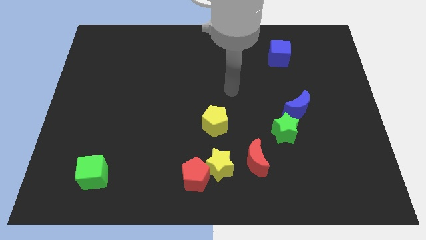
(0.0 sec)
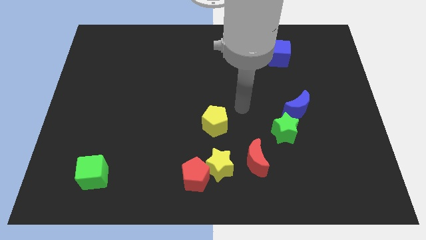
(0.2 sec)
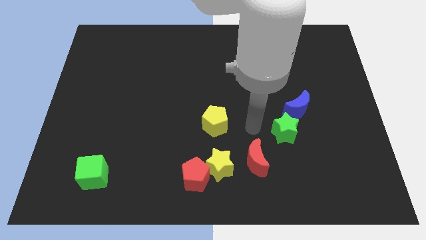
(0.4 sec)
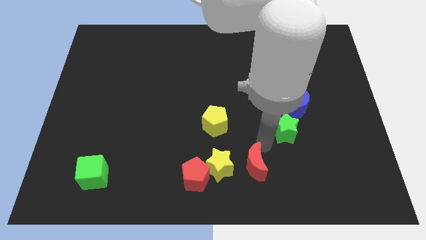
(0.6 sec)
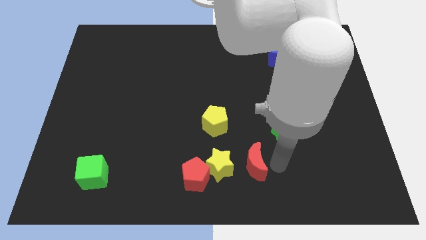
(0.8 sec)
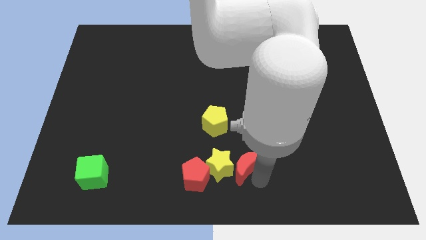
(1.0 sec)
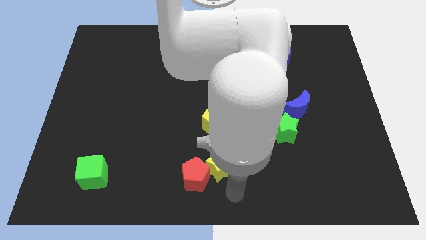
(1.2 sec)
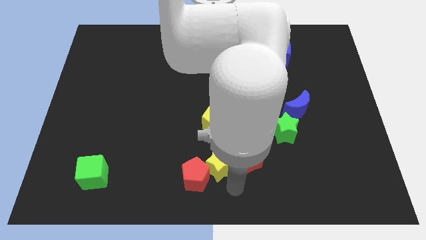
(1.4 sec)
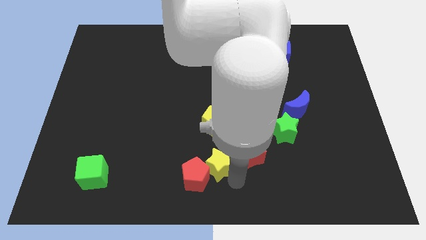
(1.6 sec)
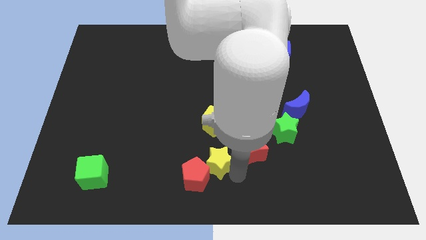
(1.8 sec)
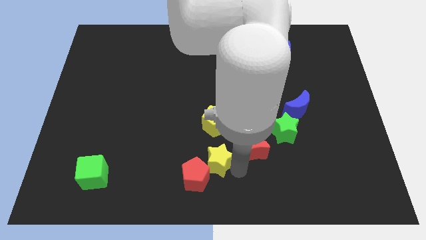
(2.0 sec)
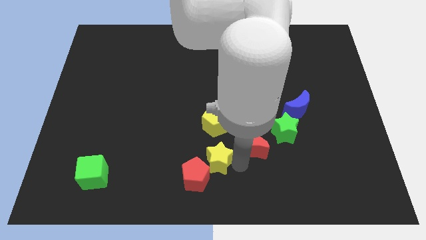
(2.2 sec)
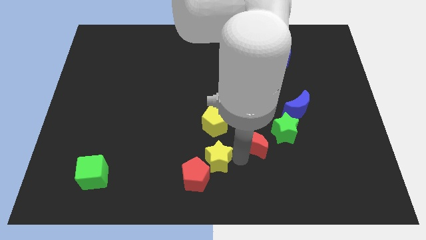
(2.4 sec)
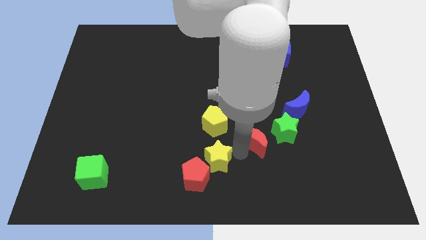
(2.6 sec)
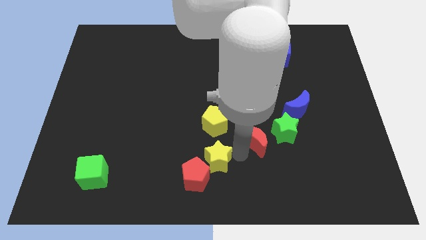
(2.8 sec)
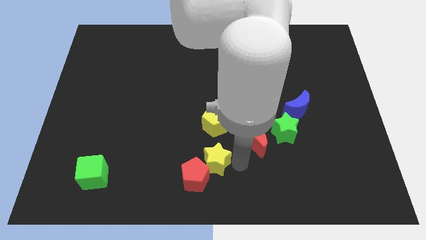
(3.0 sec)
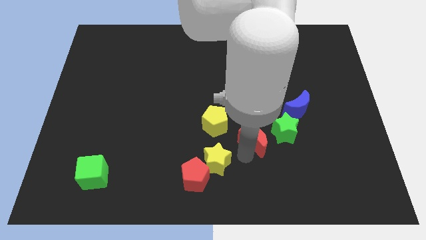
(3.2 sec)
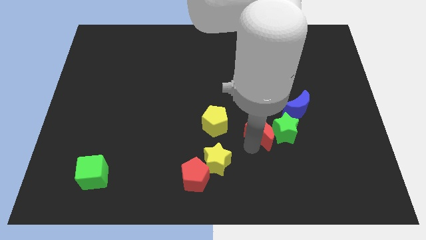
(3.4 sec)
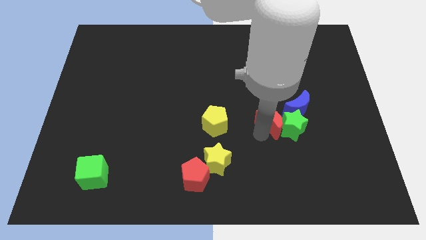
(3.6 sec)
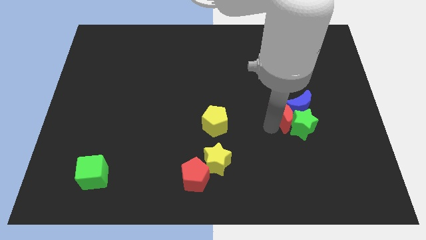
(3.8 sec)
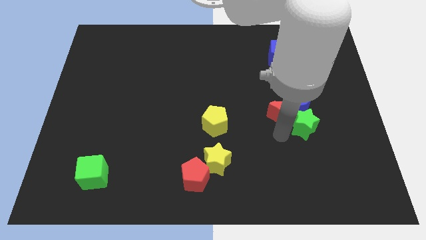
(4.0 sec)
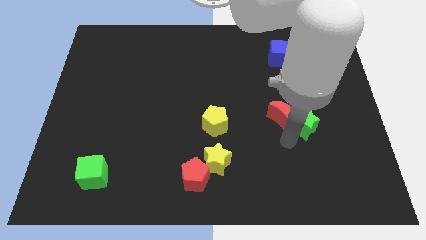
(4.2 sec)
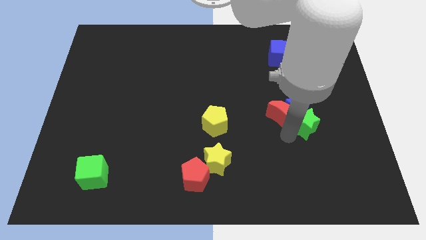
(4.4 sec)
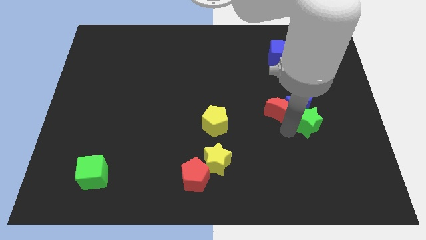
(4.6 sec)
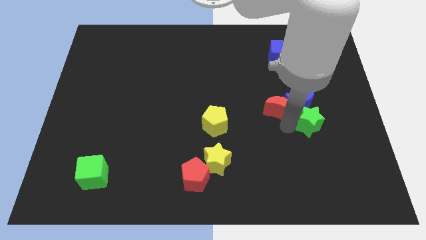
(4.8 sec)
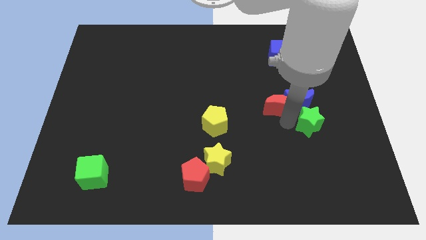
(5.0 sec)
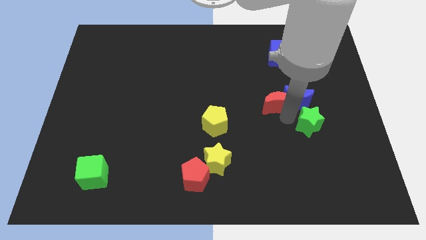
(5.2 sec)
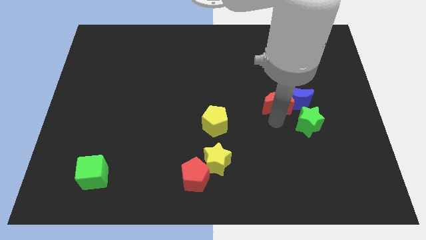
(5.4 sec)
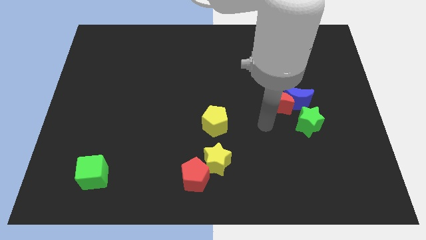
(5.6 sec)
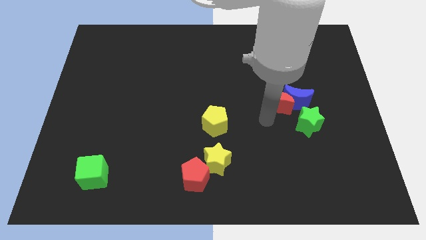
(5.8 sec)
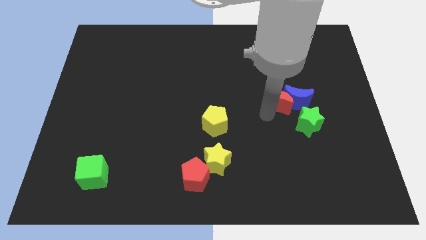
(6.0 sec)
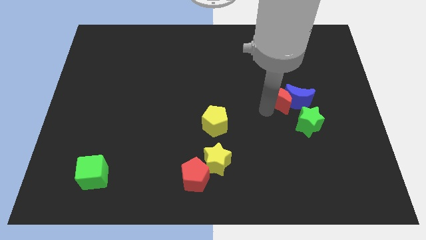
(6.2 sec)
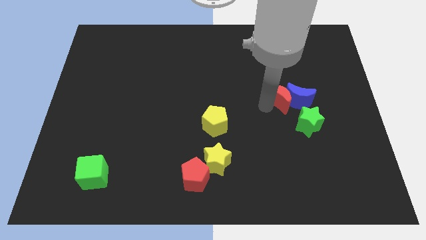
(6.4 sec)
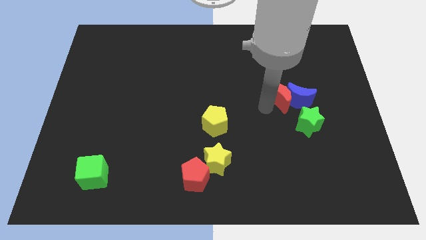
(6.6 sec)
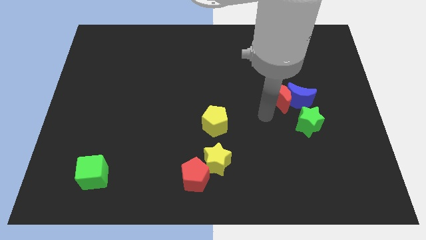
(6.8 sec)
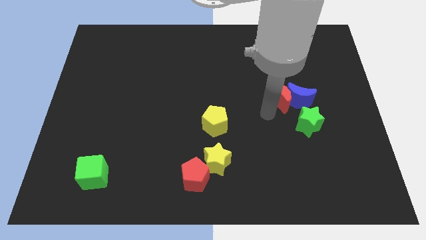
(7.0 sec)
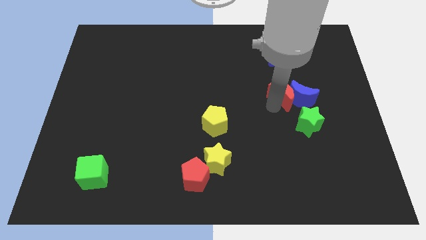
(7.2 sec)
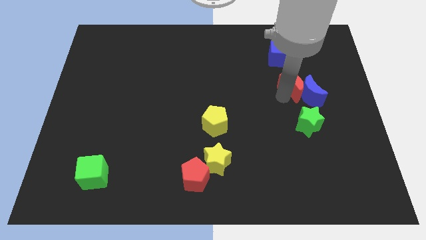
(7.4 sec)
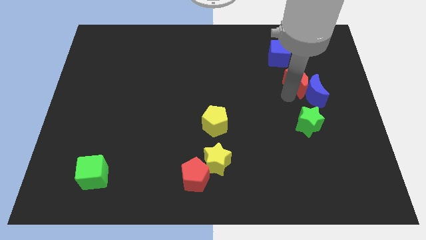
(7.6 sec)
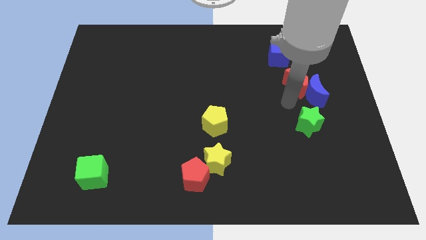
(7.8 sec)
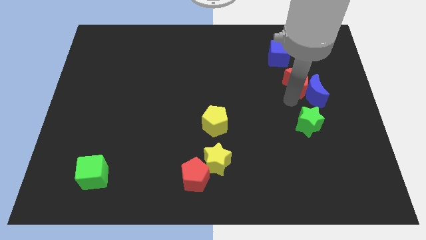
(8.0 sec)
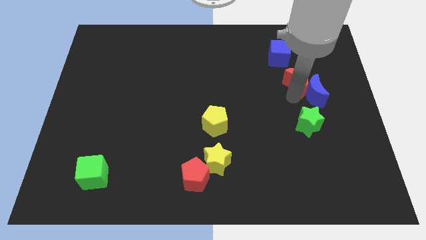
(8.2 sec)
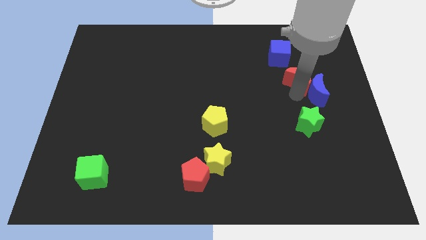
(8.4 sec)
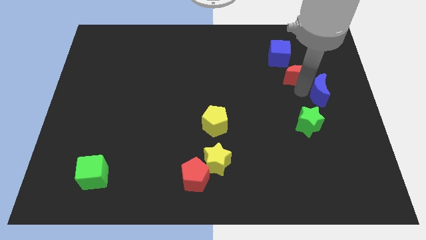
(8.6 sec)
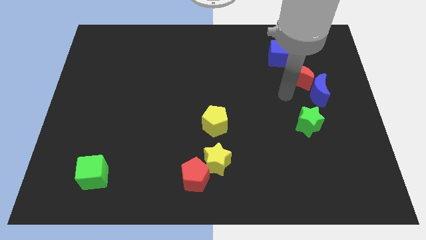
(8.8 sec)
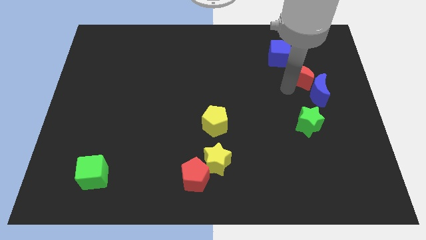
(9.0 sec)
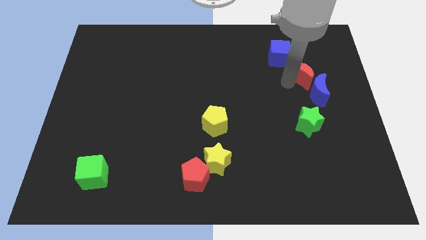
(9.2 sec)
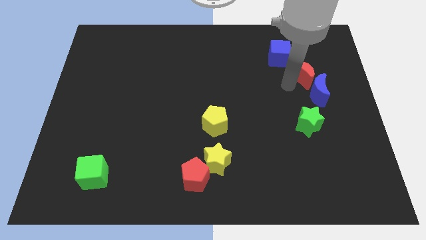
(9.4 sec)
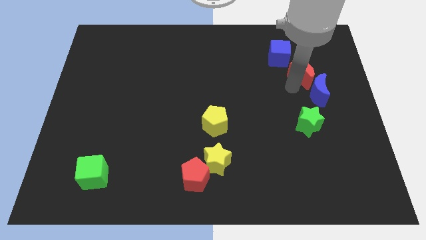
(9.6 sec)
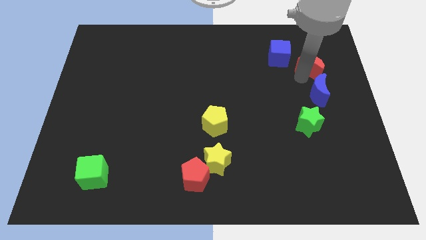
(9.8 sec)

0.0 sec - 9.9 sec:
move the red moon right of the blue cube

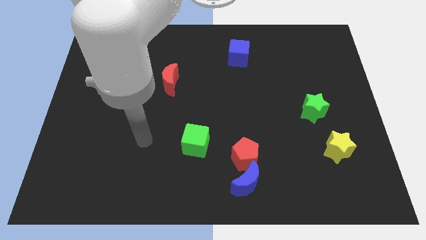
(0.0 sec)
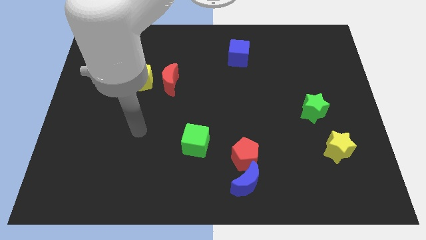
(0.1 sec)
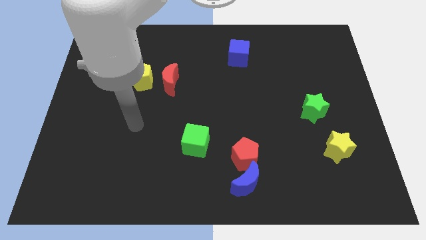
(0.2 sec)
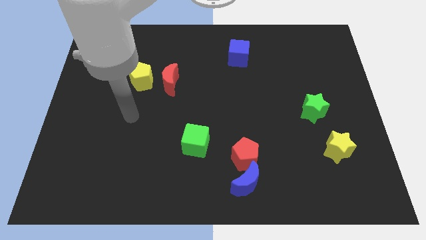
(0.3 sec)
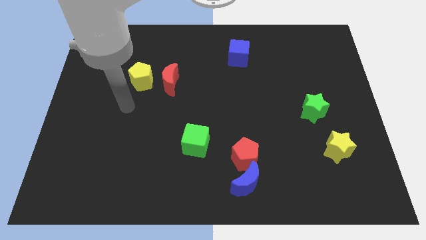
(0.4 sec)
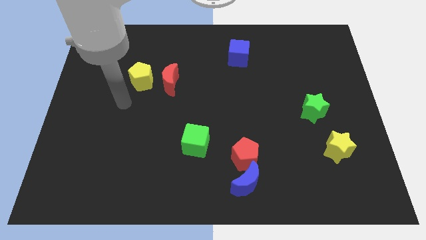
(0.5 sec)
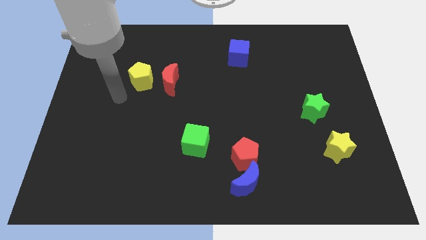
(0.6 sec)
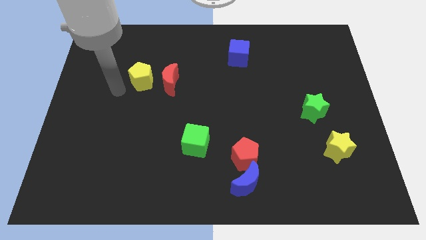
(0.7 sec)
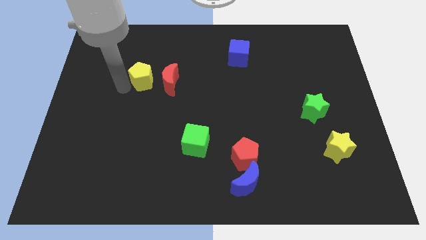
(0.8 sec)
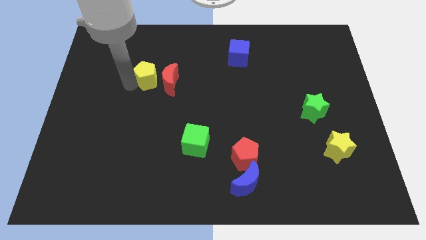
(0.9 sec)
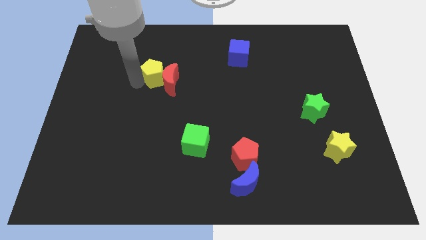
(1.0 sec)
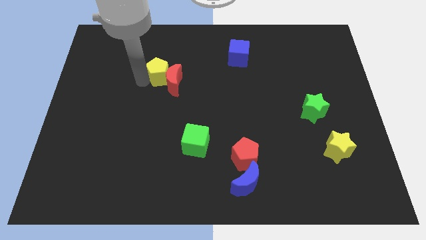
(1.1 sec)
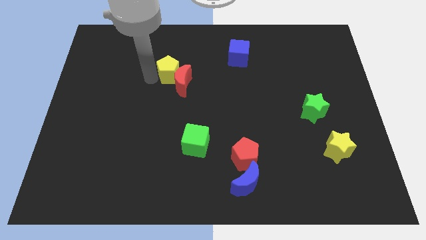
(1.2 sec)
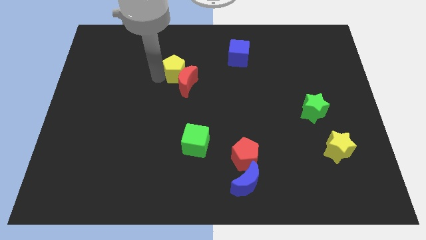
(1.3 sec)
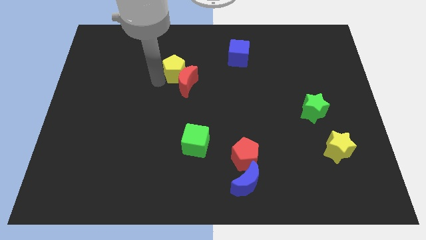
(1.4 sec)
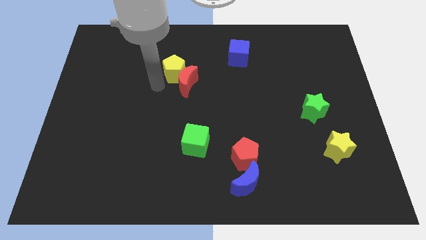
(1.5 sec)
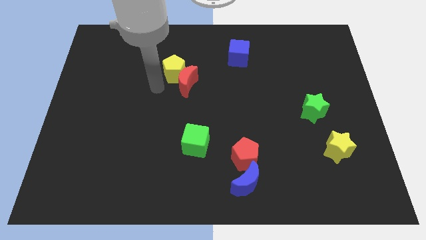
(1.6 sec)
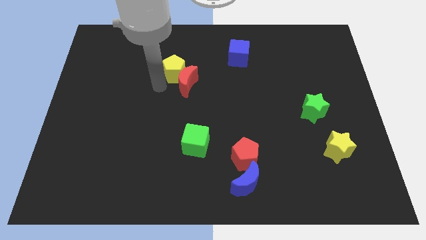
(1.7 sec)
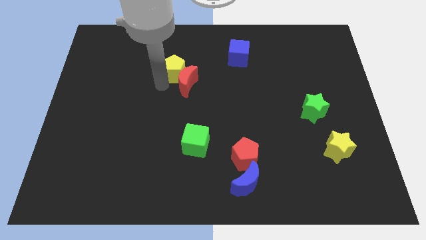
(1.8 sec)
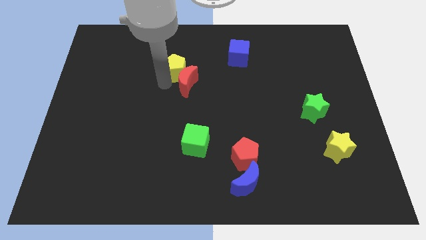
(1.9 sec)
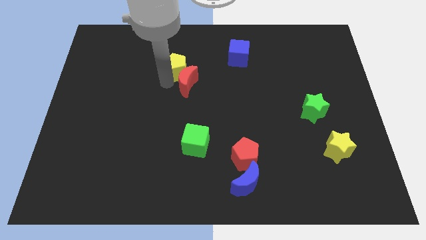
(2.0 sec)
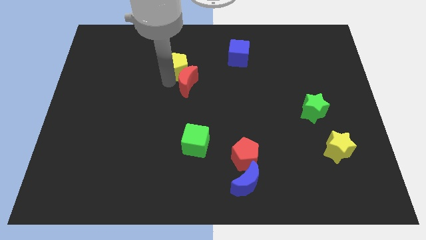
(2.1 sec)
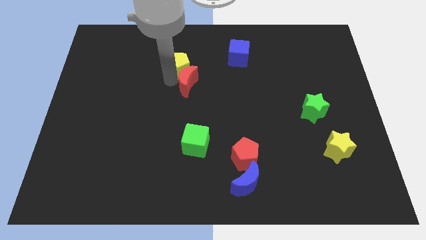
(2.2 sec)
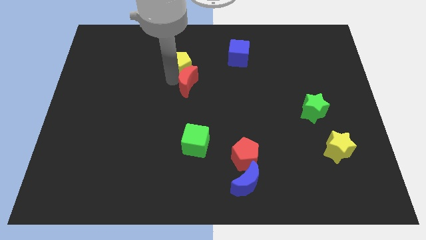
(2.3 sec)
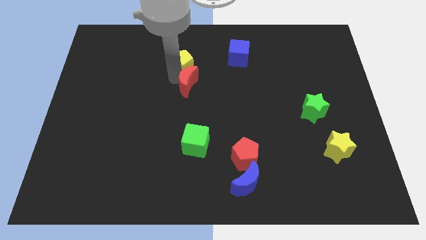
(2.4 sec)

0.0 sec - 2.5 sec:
slide the yellow pentagon left of the blue cube
